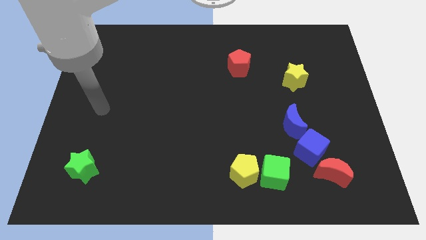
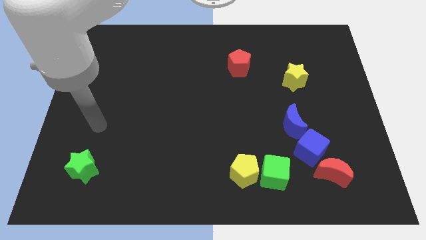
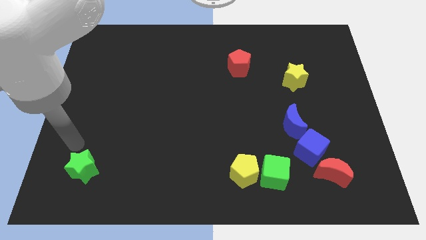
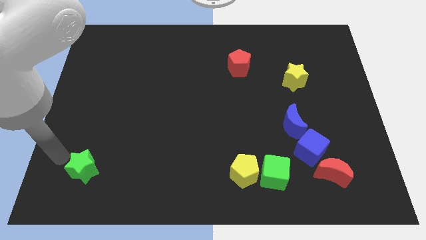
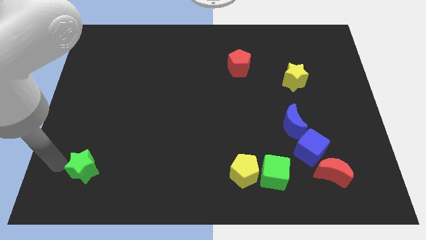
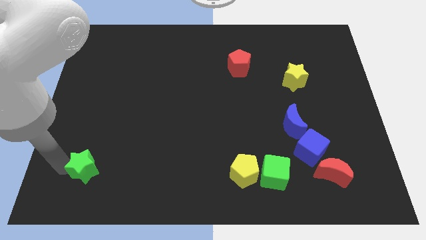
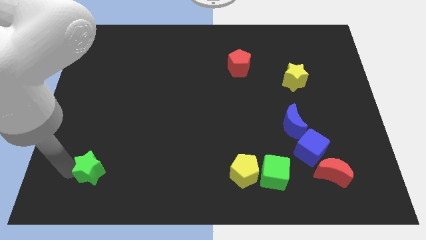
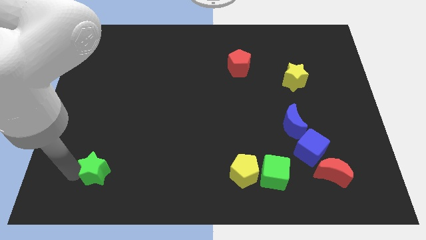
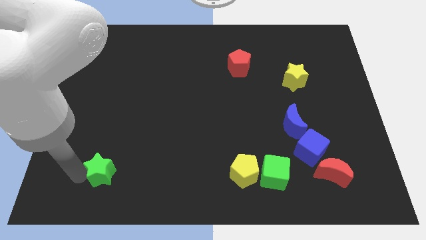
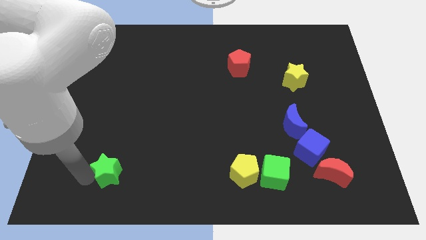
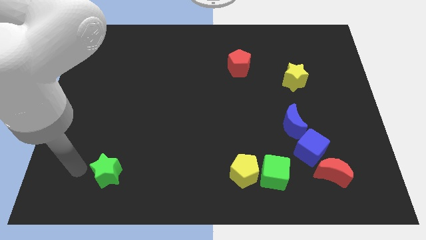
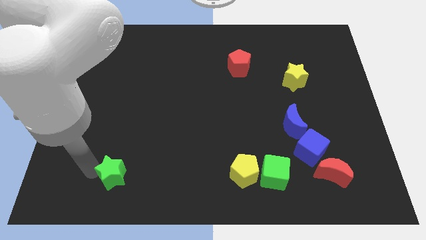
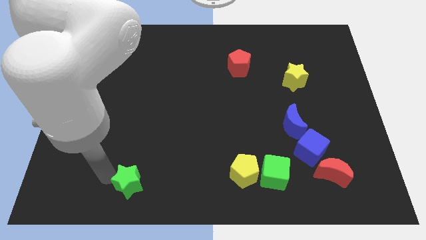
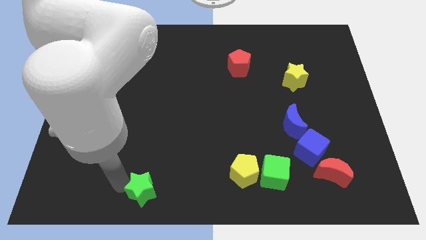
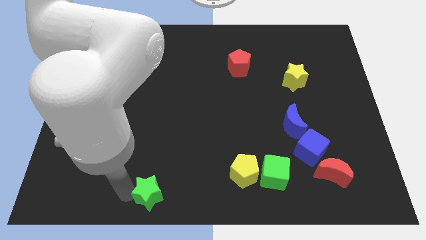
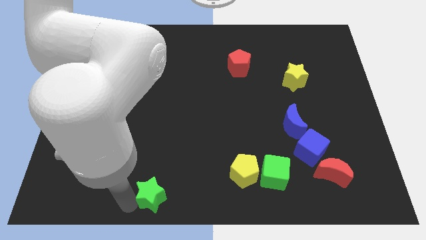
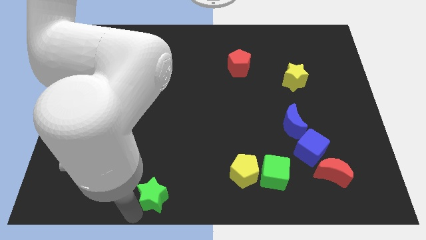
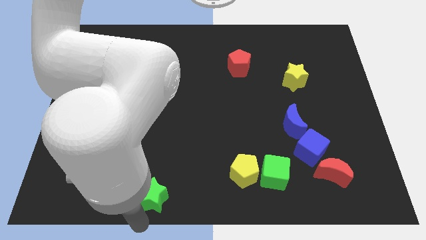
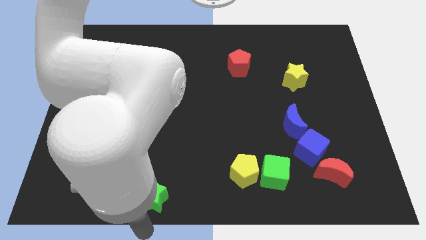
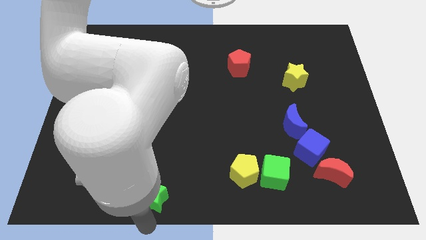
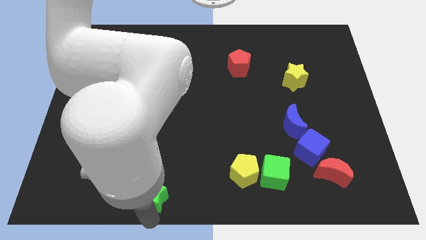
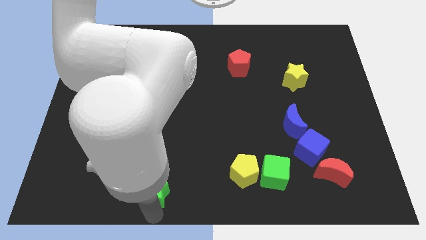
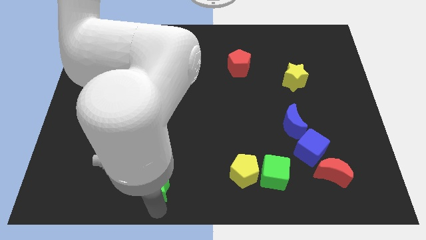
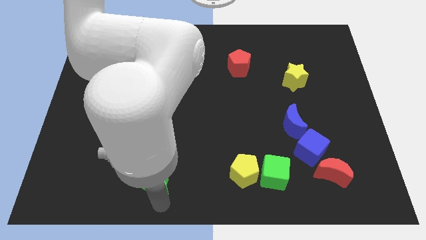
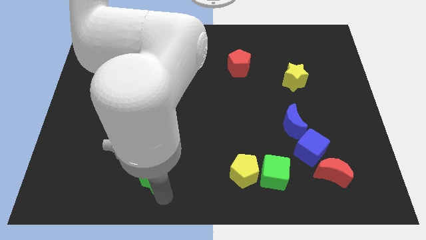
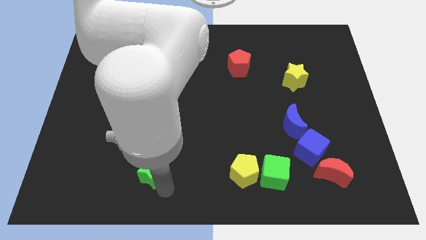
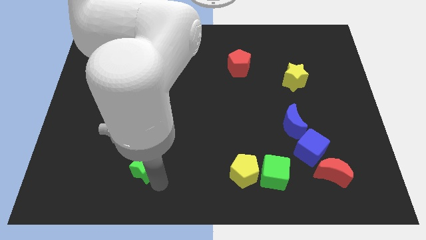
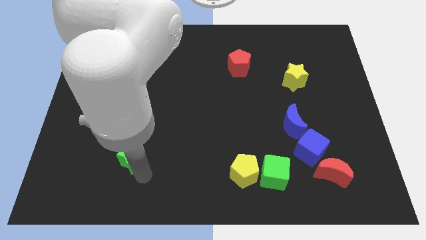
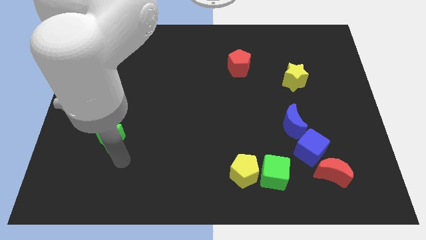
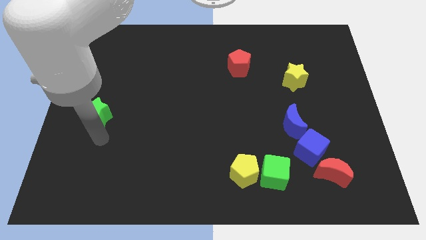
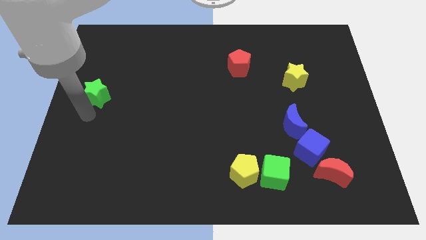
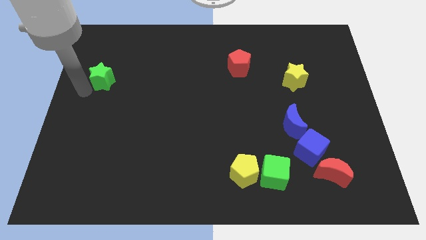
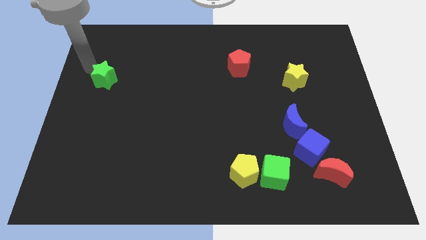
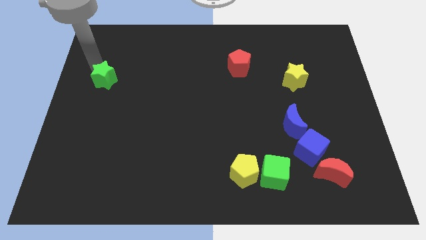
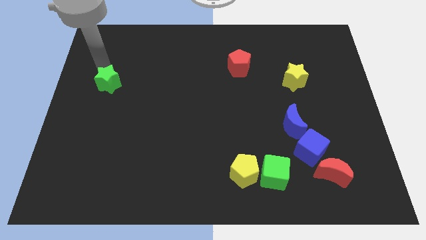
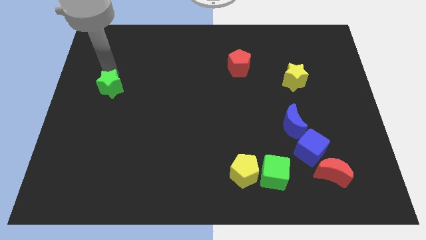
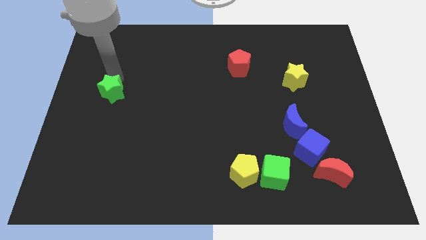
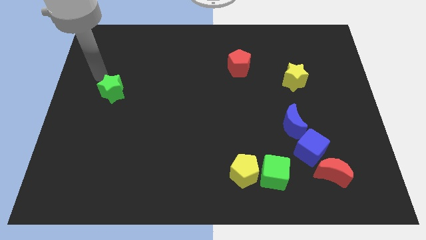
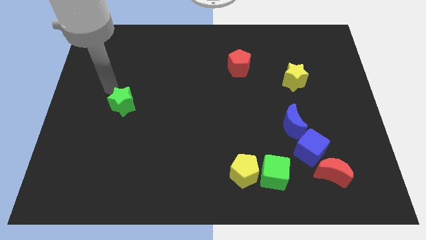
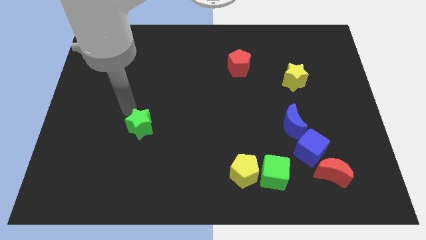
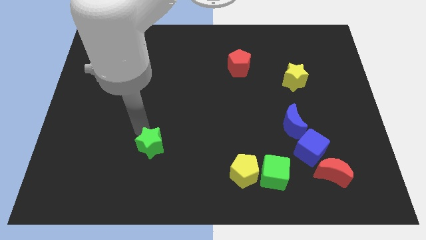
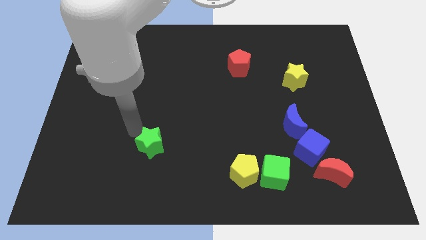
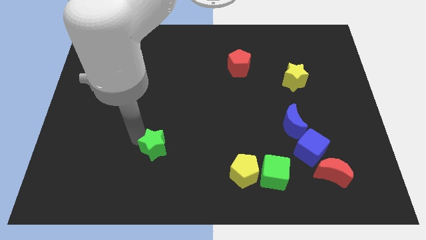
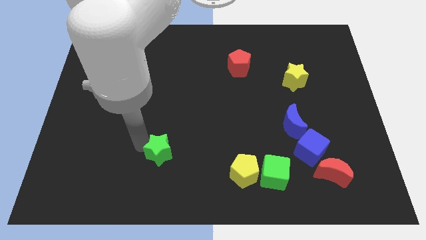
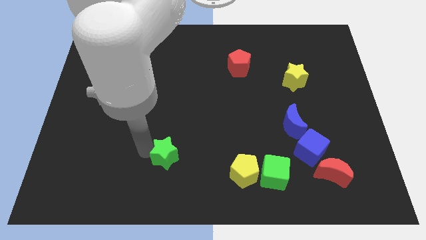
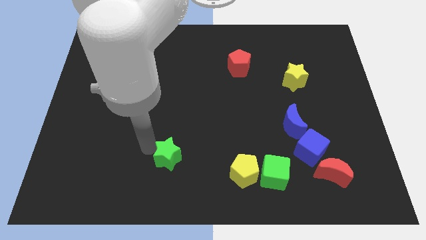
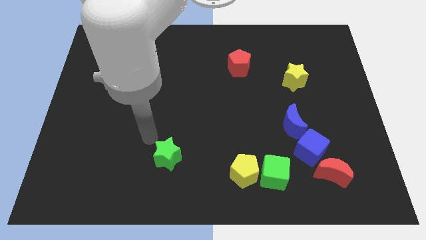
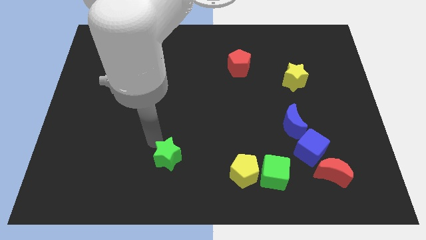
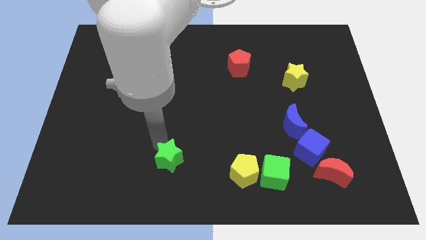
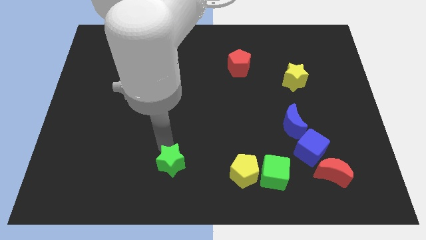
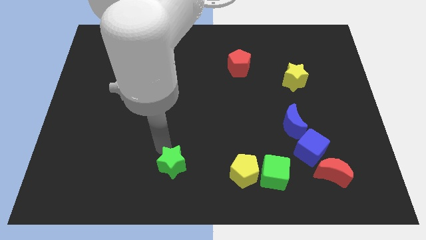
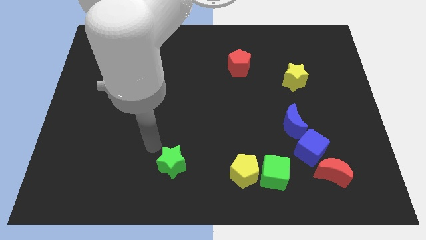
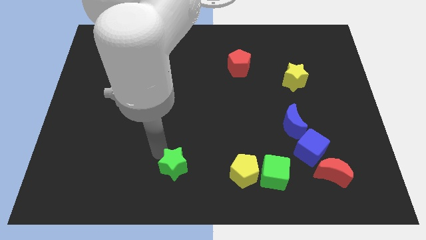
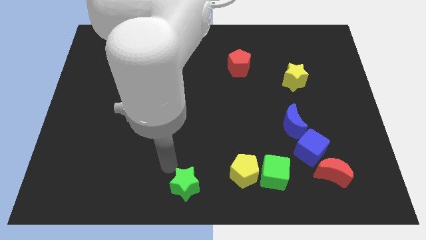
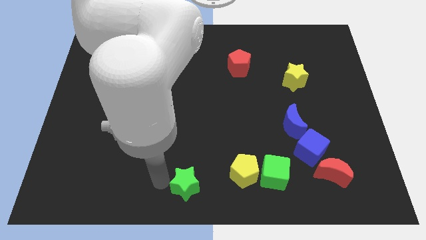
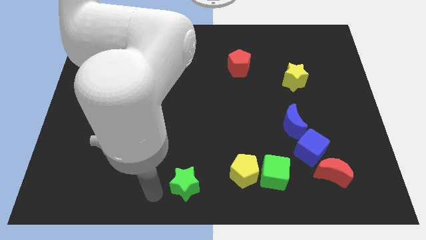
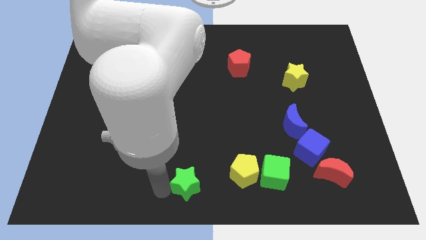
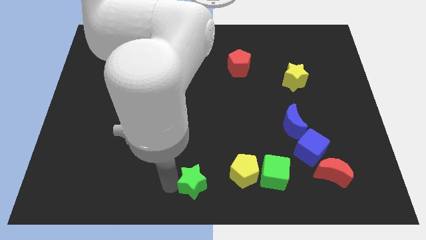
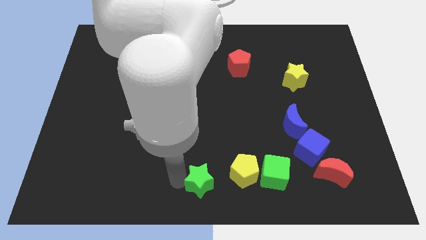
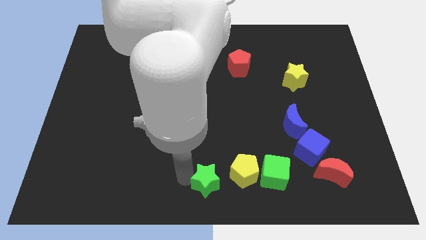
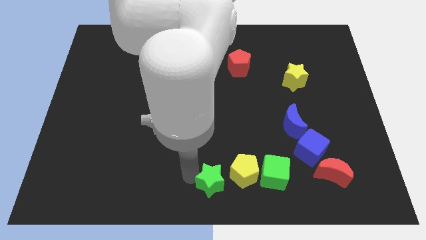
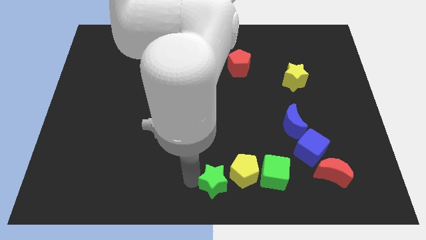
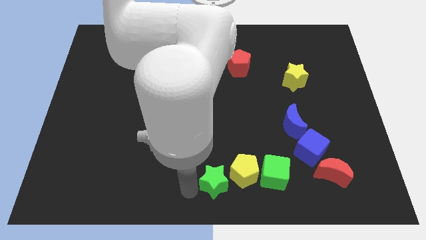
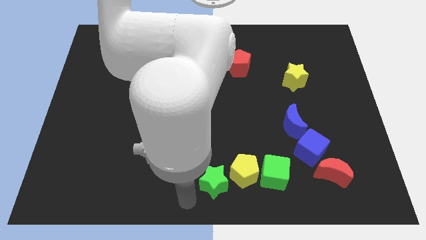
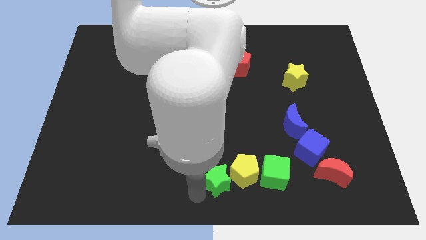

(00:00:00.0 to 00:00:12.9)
move the green star towards the yellow pentagon

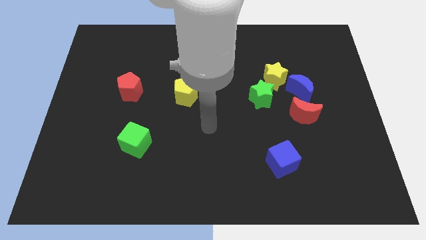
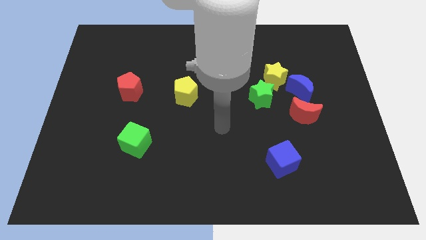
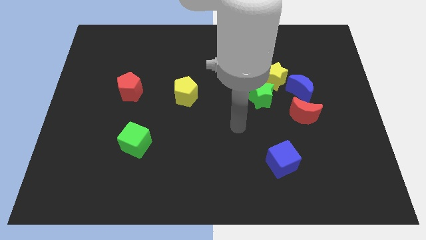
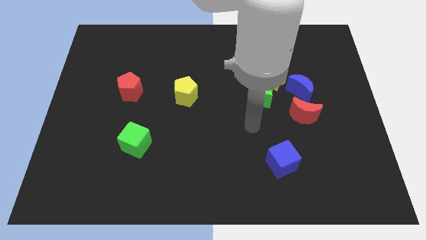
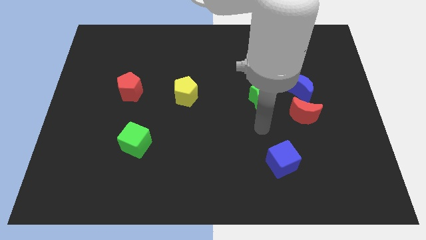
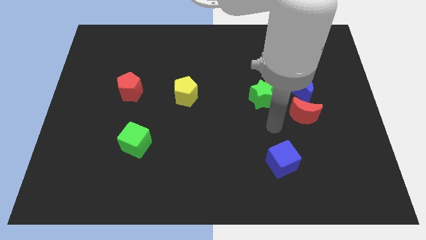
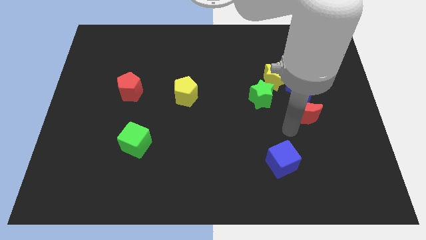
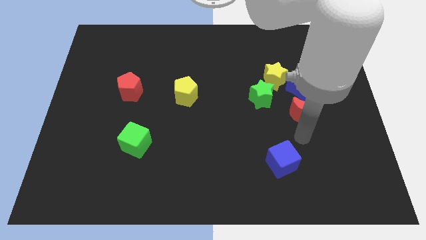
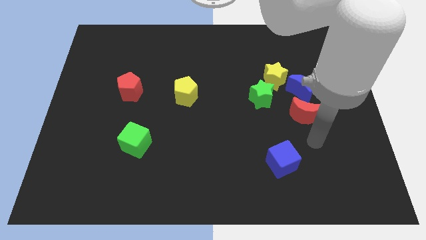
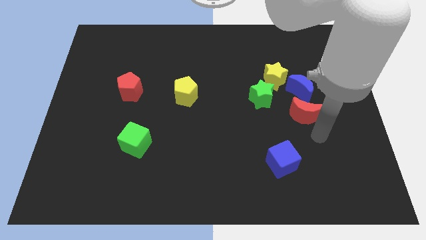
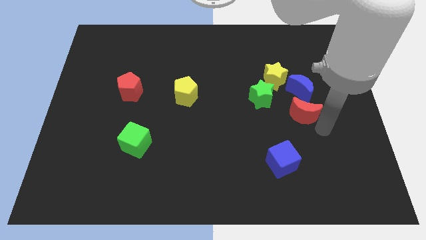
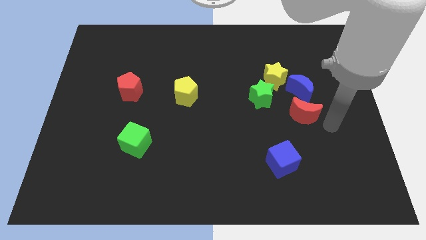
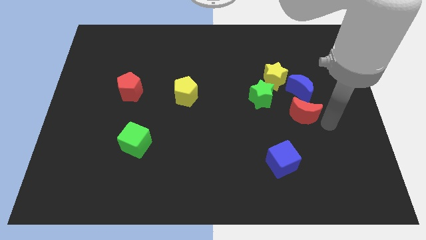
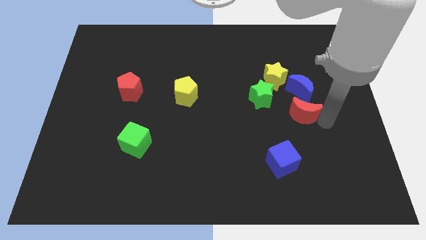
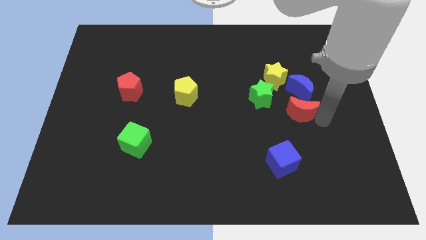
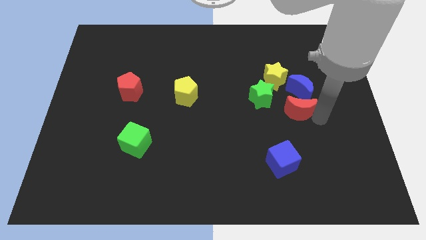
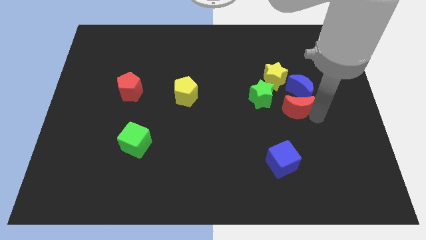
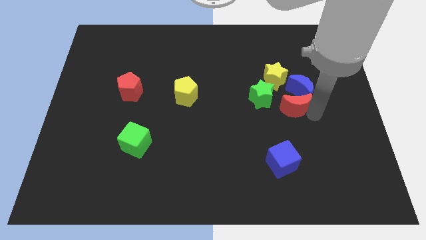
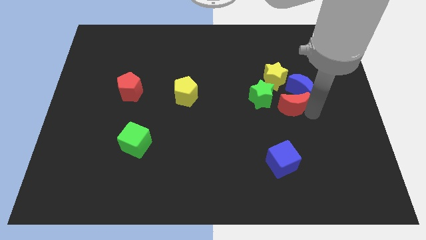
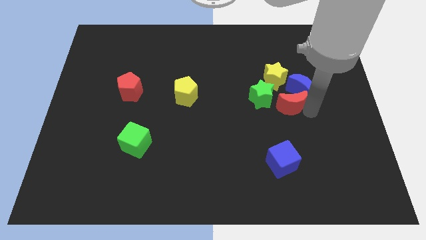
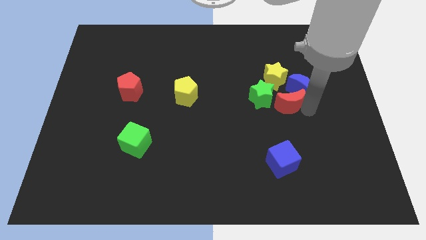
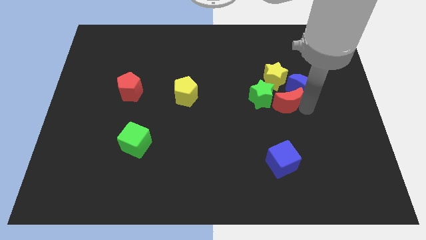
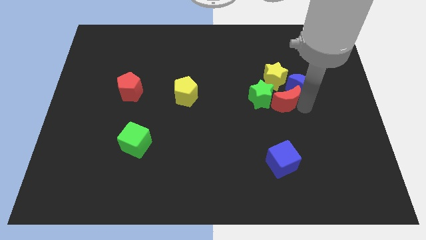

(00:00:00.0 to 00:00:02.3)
put the red moon close to the green star
